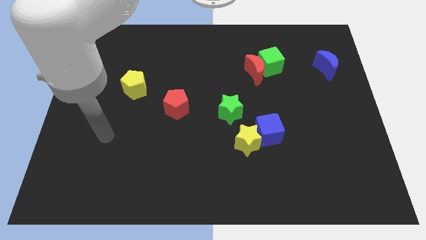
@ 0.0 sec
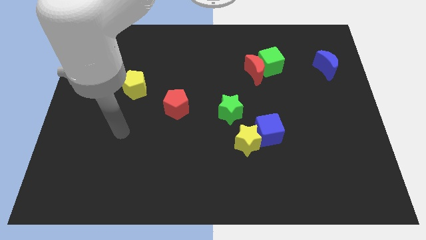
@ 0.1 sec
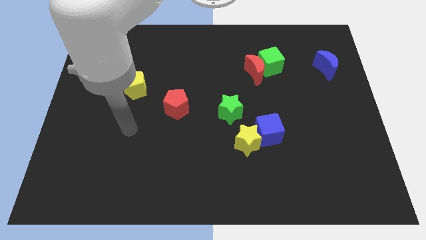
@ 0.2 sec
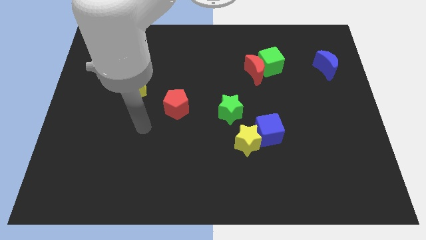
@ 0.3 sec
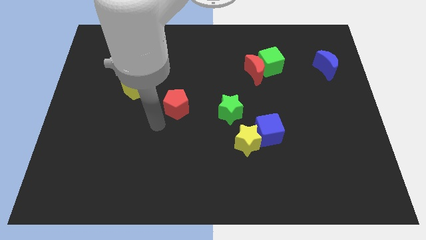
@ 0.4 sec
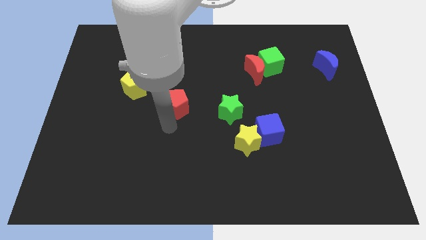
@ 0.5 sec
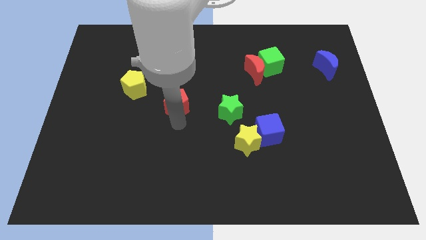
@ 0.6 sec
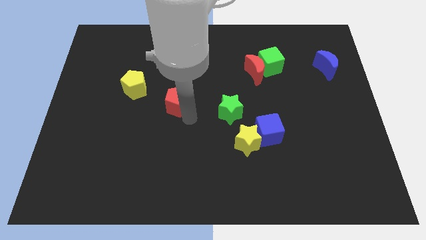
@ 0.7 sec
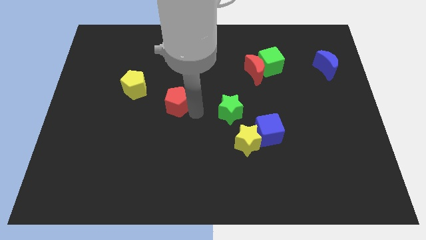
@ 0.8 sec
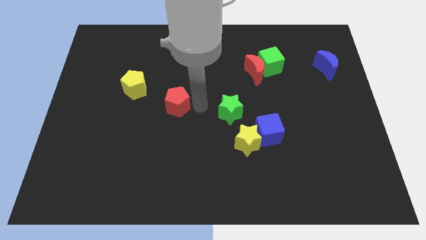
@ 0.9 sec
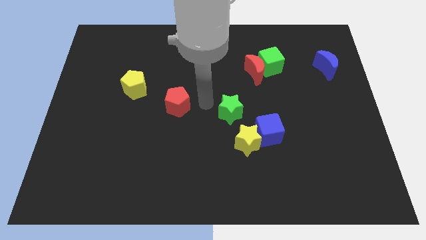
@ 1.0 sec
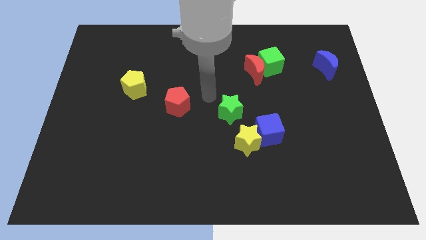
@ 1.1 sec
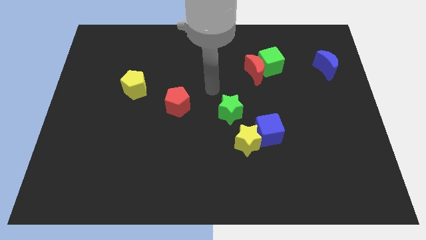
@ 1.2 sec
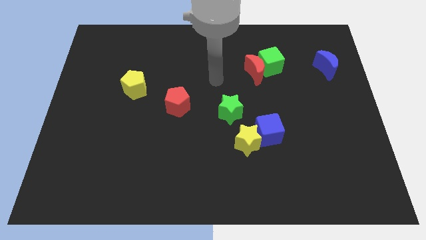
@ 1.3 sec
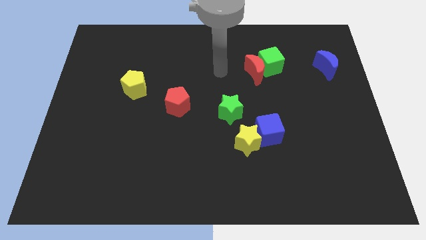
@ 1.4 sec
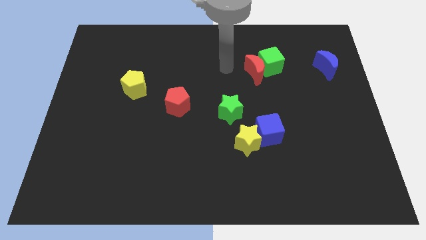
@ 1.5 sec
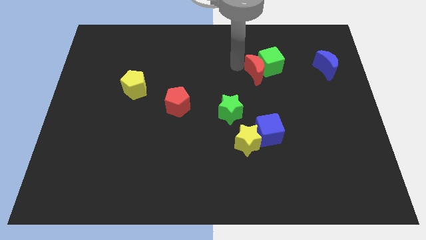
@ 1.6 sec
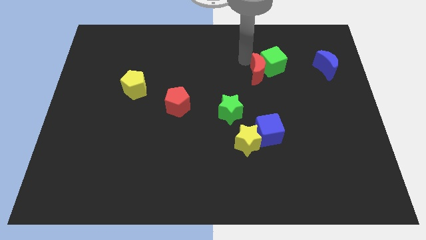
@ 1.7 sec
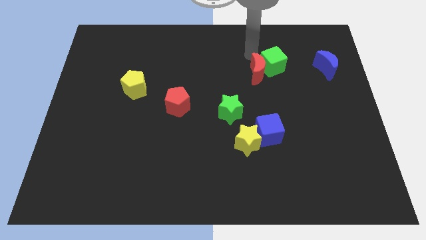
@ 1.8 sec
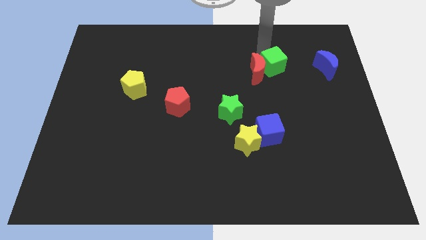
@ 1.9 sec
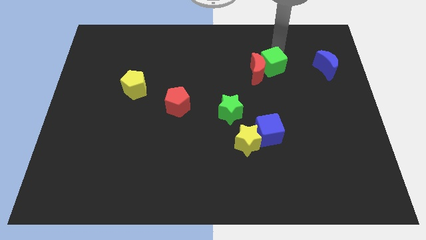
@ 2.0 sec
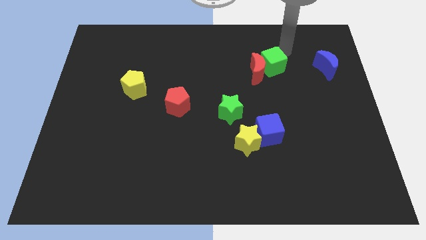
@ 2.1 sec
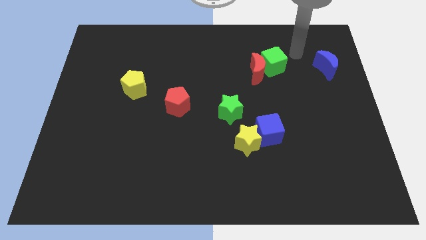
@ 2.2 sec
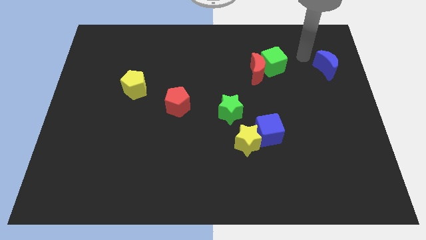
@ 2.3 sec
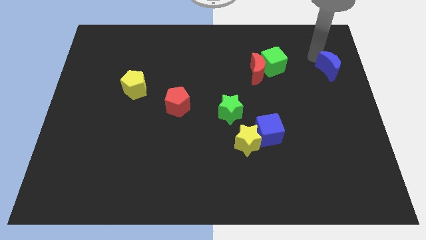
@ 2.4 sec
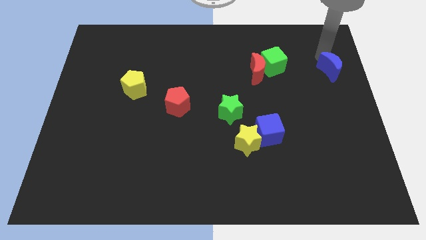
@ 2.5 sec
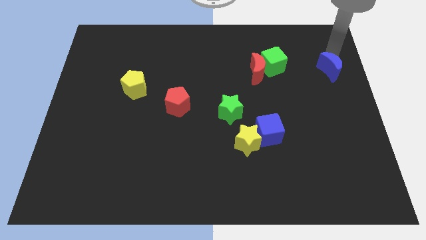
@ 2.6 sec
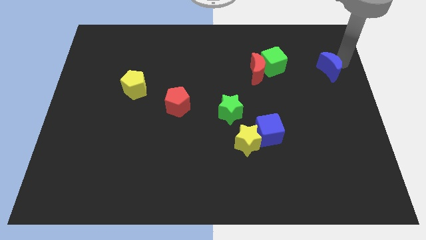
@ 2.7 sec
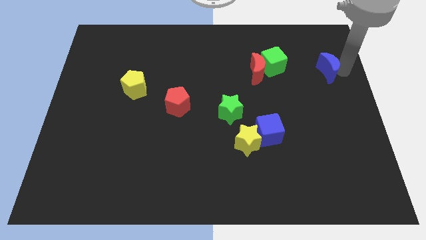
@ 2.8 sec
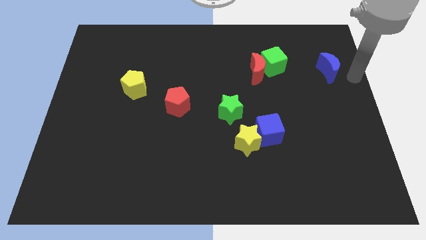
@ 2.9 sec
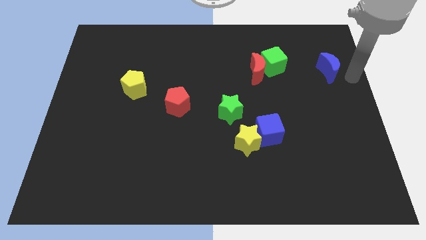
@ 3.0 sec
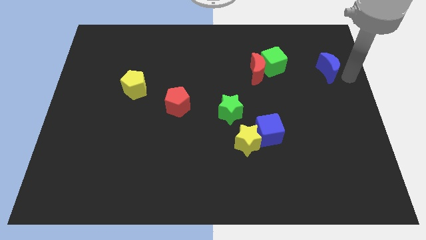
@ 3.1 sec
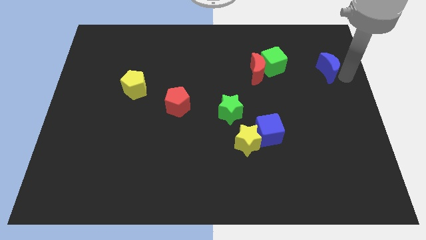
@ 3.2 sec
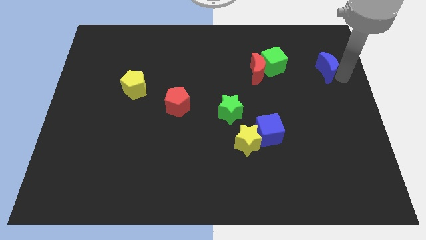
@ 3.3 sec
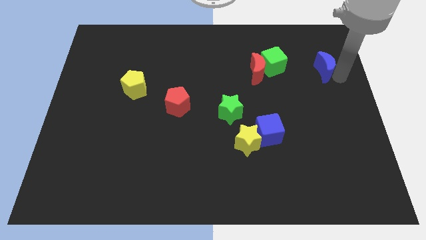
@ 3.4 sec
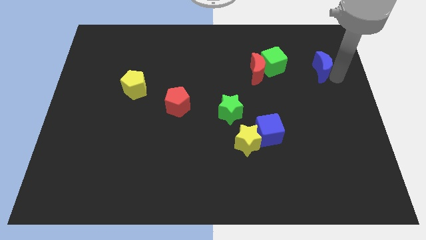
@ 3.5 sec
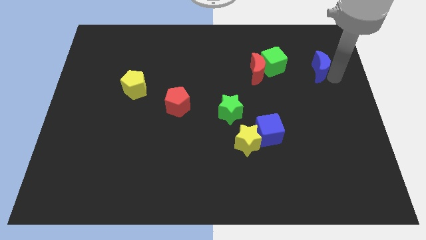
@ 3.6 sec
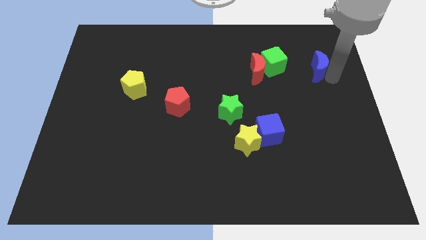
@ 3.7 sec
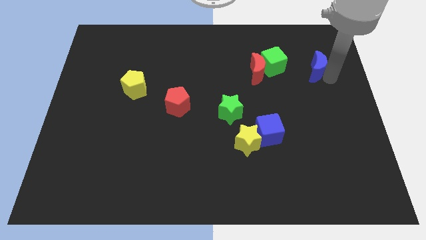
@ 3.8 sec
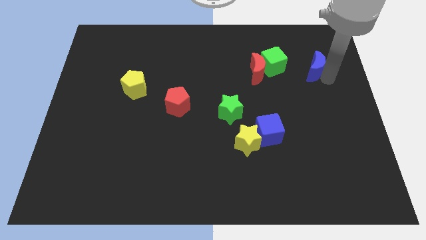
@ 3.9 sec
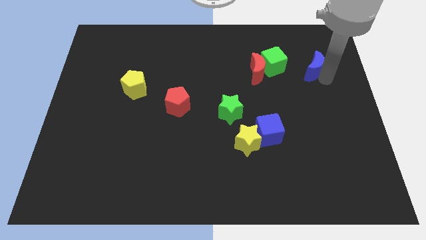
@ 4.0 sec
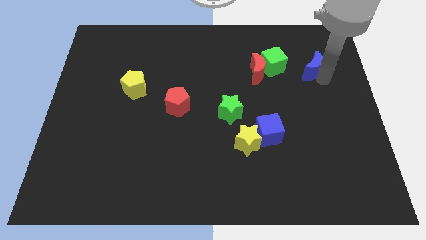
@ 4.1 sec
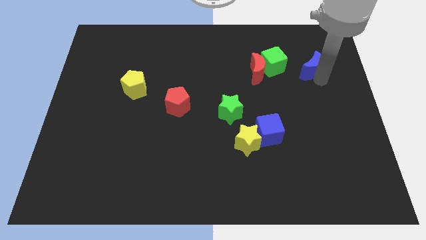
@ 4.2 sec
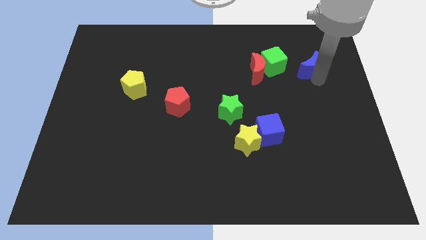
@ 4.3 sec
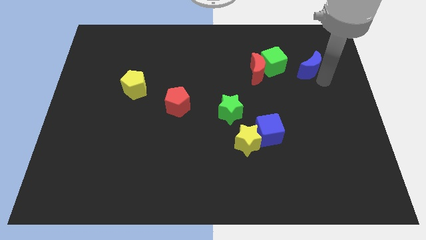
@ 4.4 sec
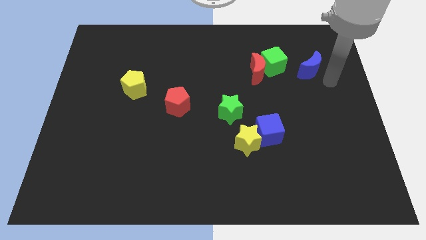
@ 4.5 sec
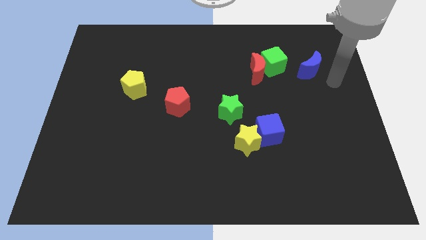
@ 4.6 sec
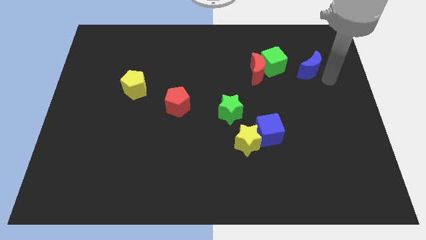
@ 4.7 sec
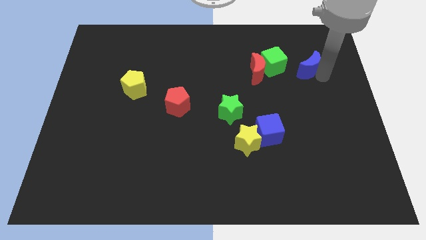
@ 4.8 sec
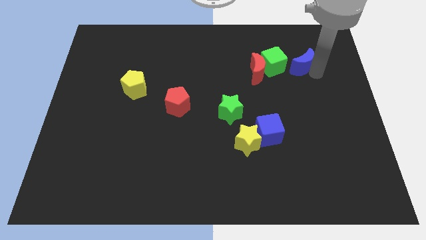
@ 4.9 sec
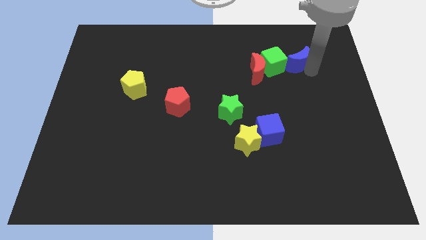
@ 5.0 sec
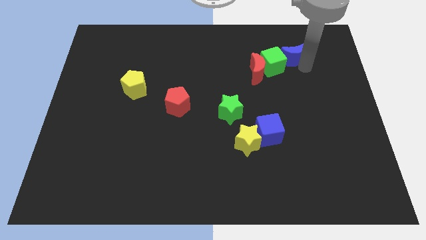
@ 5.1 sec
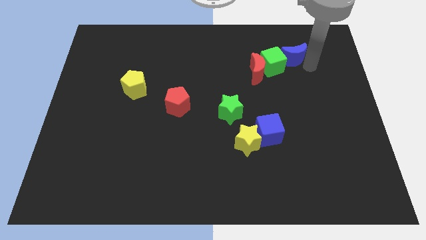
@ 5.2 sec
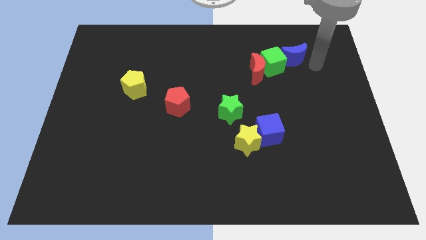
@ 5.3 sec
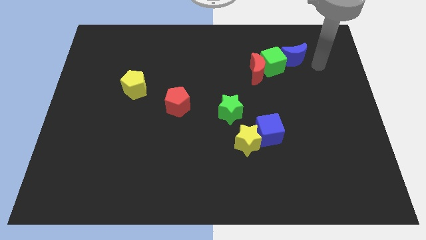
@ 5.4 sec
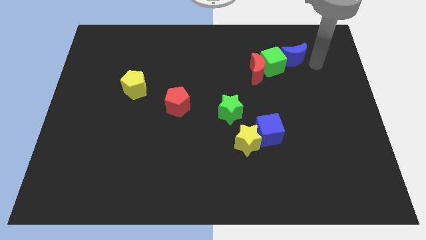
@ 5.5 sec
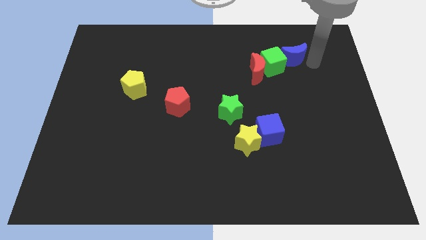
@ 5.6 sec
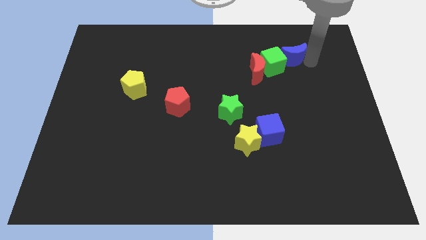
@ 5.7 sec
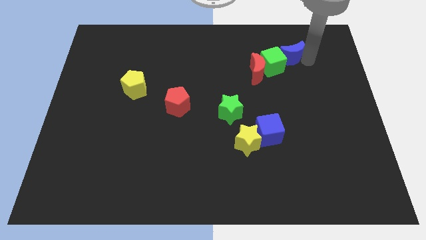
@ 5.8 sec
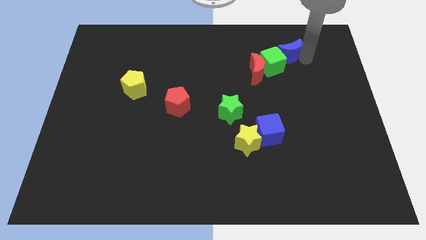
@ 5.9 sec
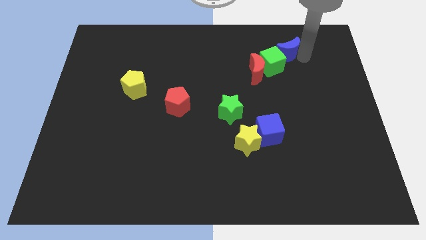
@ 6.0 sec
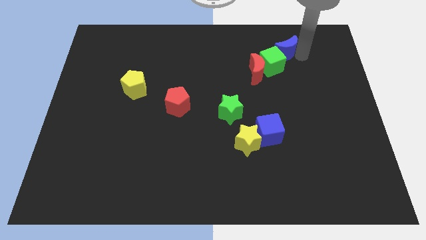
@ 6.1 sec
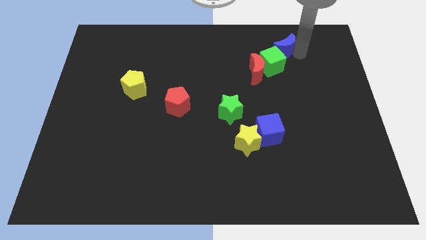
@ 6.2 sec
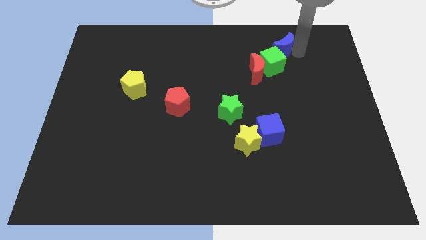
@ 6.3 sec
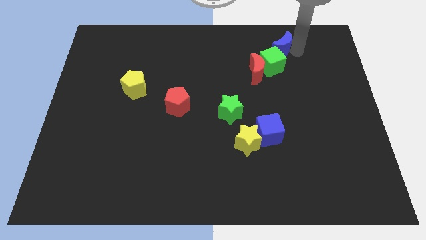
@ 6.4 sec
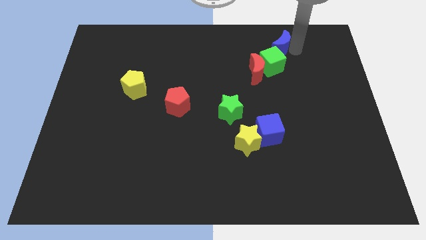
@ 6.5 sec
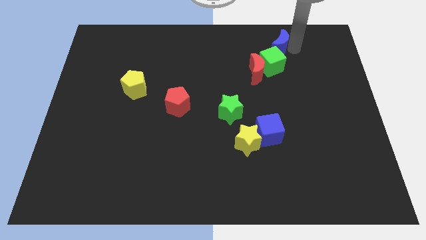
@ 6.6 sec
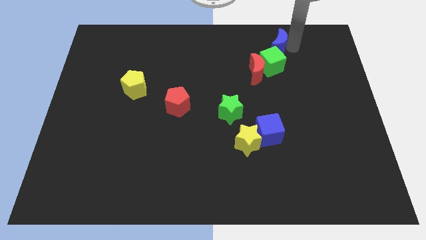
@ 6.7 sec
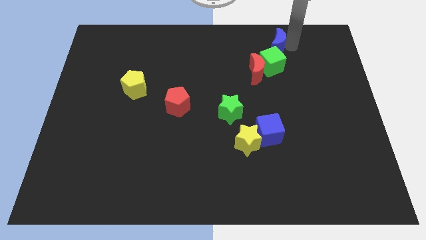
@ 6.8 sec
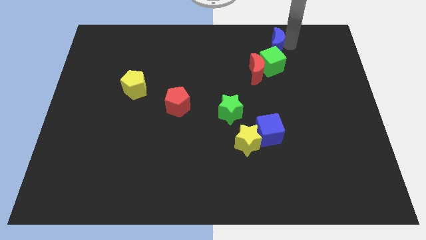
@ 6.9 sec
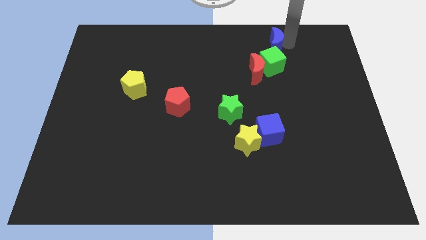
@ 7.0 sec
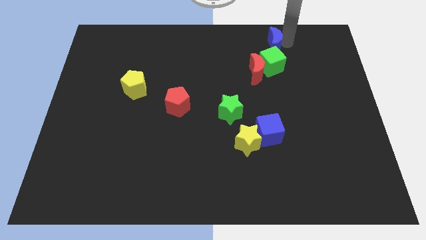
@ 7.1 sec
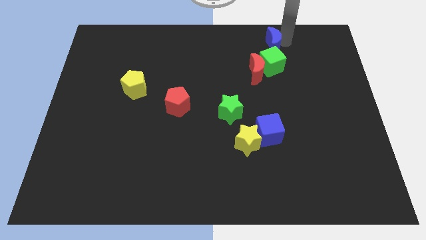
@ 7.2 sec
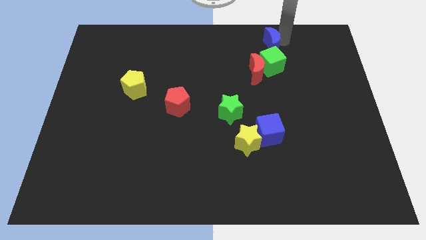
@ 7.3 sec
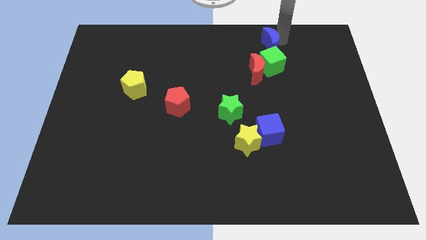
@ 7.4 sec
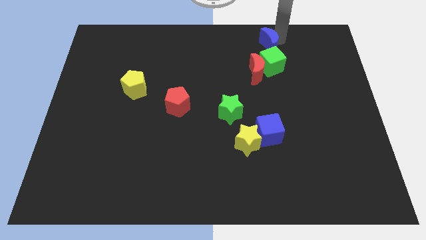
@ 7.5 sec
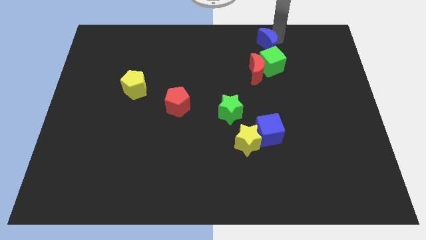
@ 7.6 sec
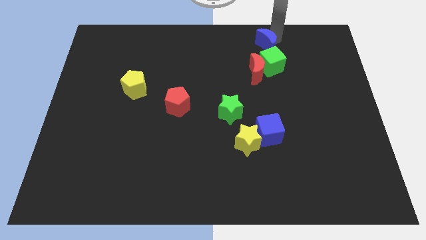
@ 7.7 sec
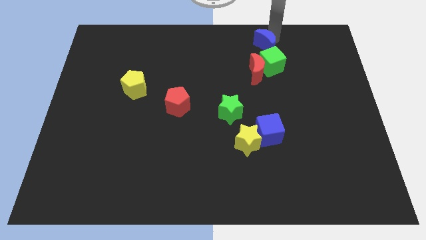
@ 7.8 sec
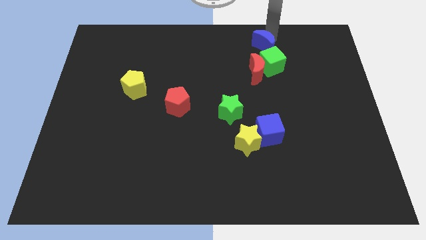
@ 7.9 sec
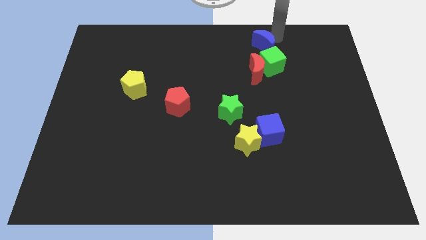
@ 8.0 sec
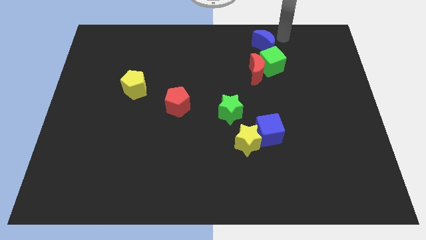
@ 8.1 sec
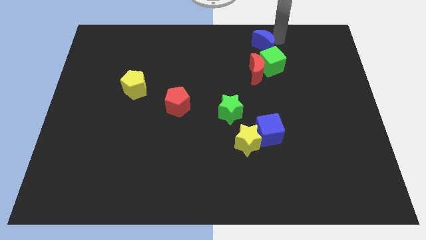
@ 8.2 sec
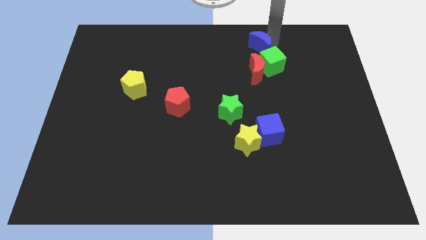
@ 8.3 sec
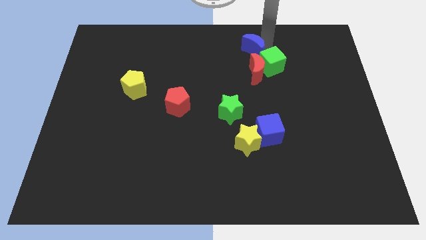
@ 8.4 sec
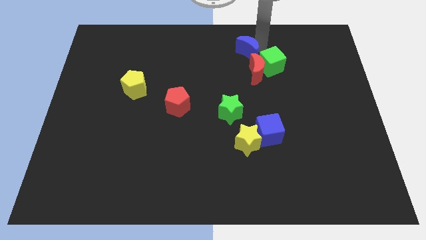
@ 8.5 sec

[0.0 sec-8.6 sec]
move the blue moon to the top left of the red moon
